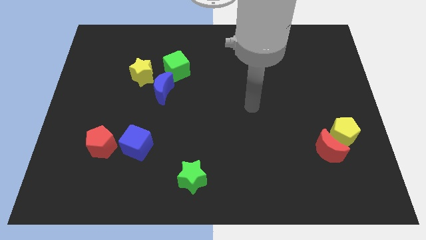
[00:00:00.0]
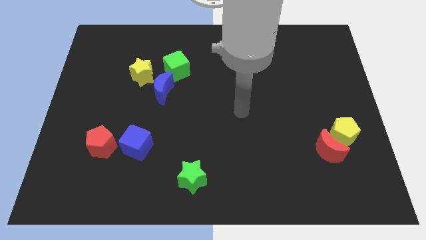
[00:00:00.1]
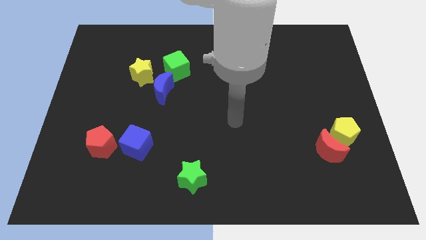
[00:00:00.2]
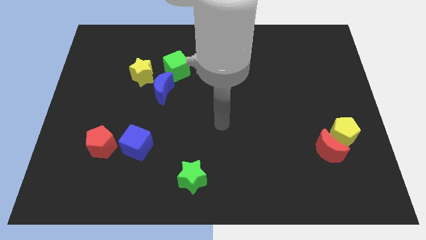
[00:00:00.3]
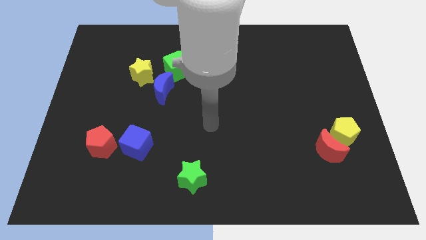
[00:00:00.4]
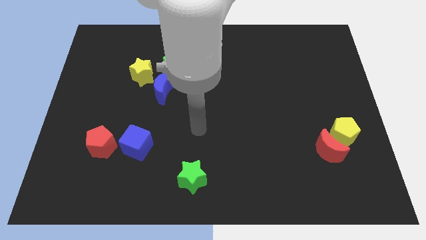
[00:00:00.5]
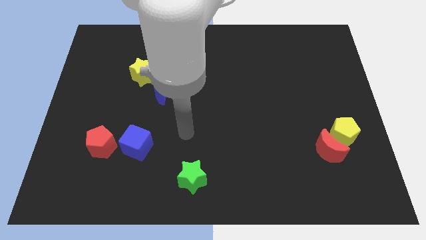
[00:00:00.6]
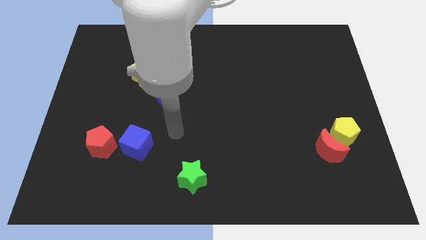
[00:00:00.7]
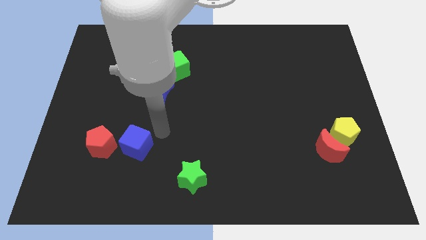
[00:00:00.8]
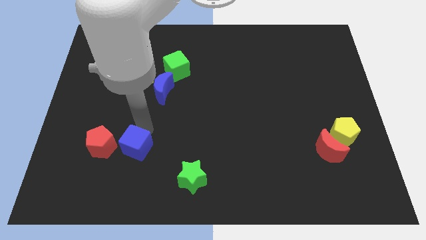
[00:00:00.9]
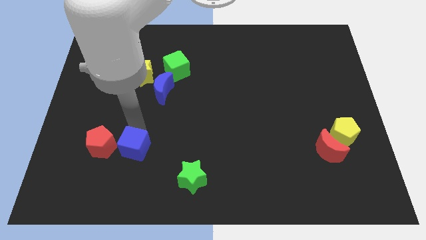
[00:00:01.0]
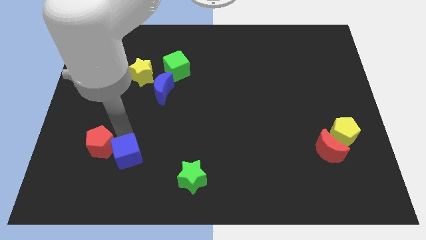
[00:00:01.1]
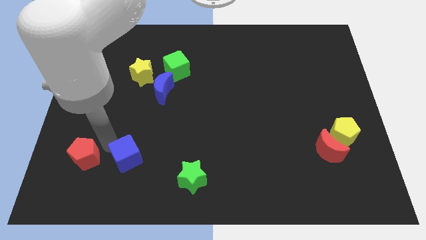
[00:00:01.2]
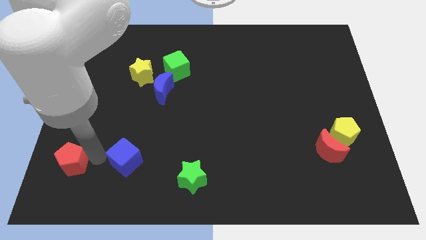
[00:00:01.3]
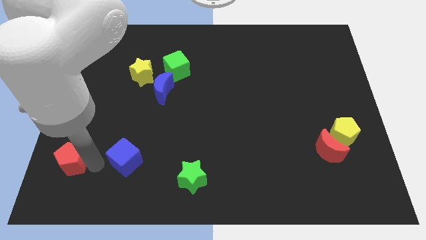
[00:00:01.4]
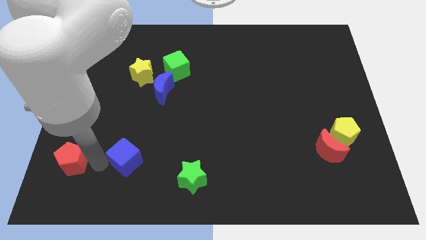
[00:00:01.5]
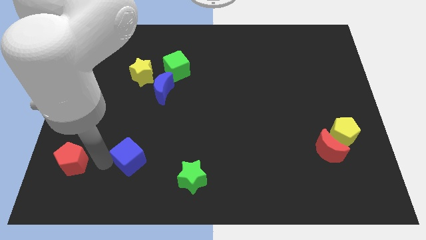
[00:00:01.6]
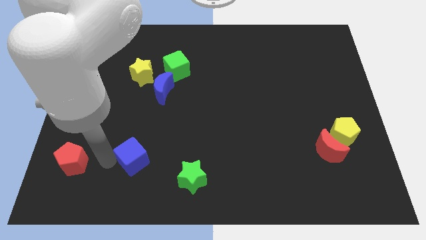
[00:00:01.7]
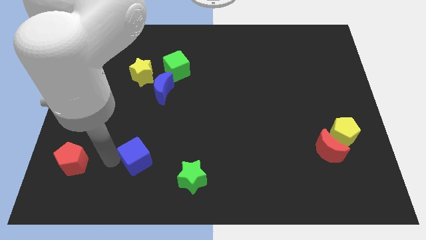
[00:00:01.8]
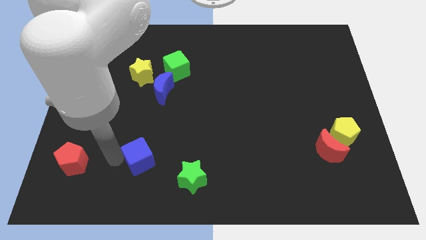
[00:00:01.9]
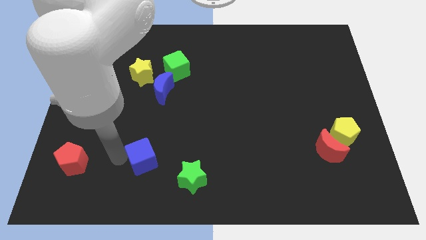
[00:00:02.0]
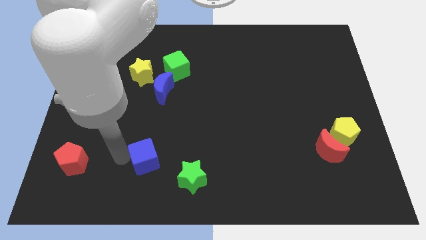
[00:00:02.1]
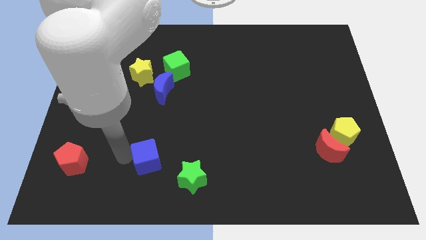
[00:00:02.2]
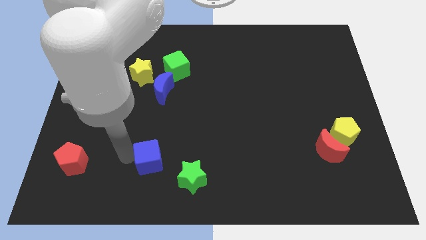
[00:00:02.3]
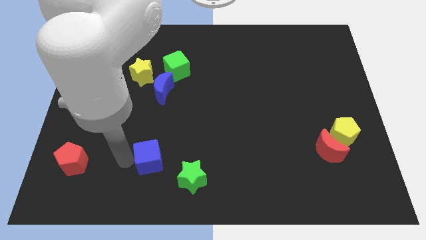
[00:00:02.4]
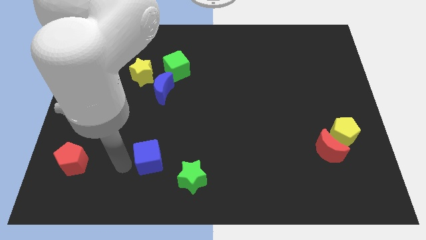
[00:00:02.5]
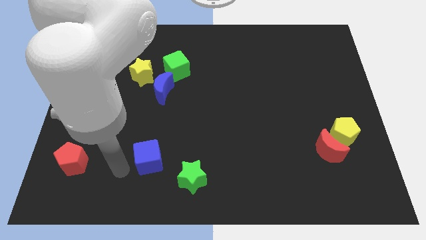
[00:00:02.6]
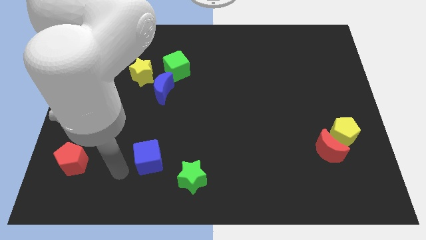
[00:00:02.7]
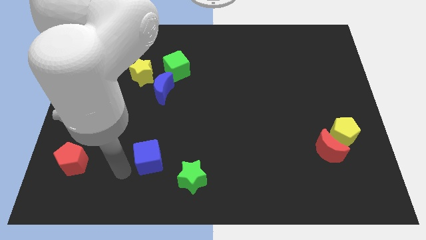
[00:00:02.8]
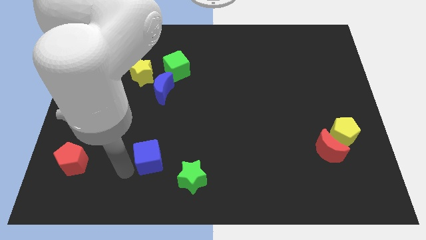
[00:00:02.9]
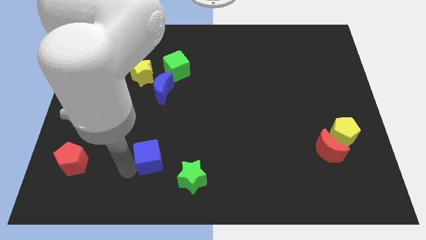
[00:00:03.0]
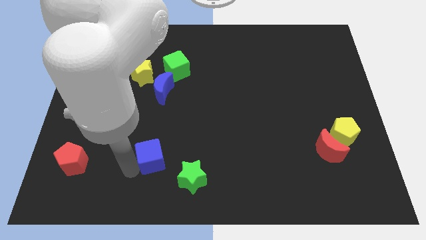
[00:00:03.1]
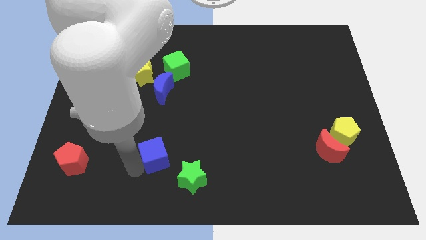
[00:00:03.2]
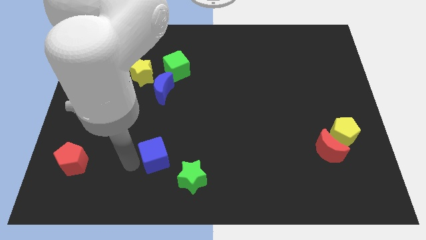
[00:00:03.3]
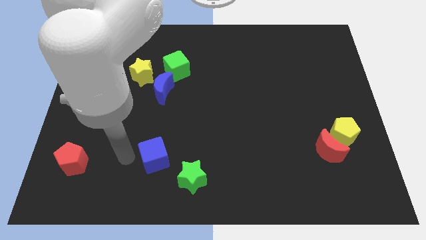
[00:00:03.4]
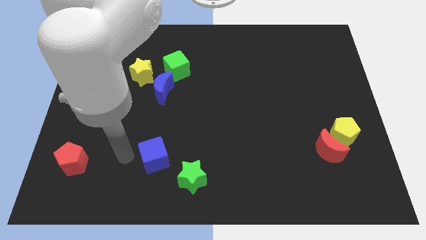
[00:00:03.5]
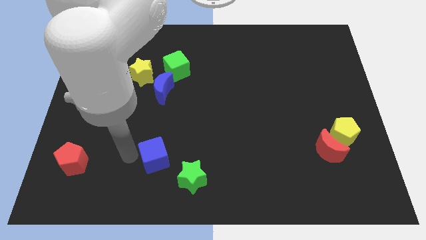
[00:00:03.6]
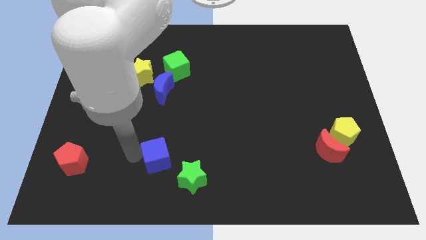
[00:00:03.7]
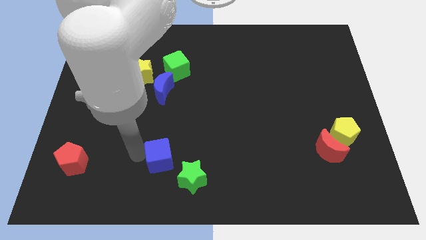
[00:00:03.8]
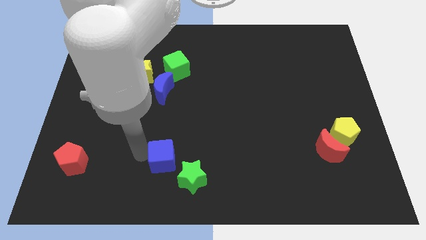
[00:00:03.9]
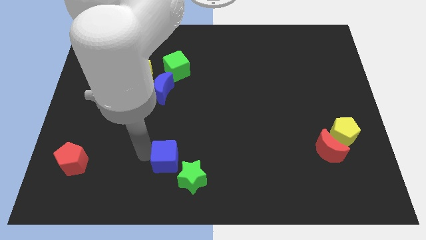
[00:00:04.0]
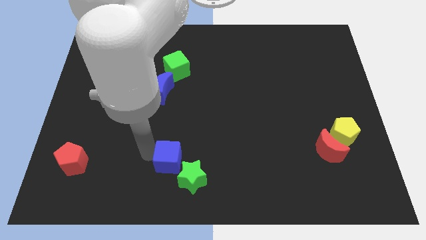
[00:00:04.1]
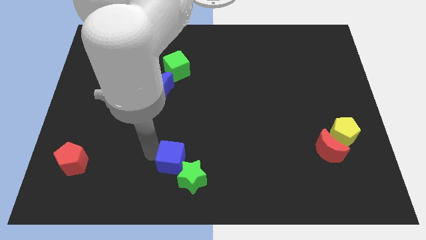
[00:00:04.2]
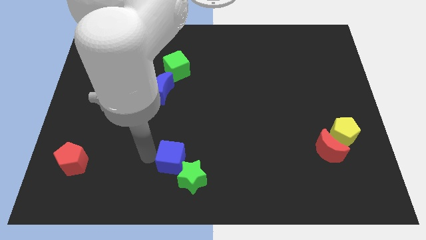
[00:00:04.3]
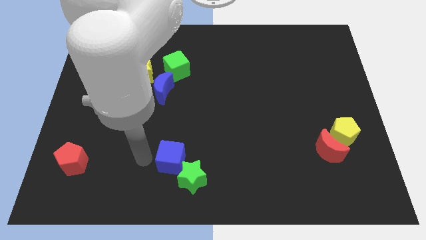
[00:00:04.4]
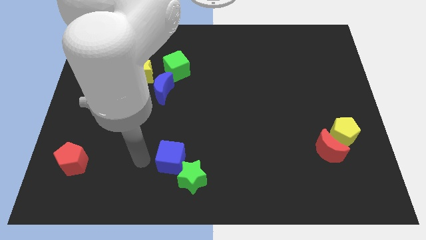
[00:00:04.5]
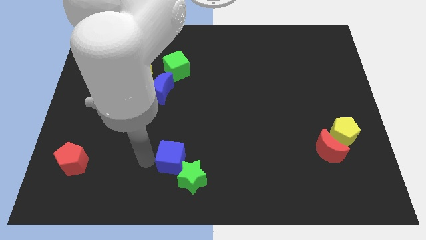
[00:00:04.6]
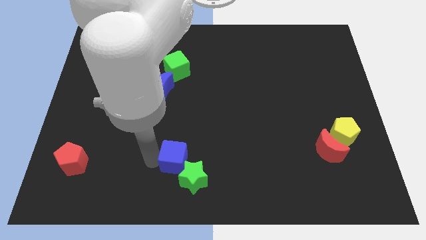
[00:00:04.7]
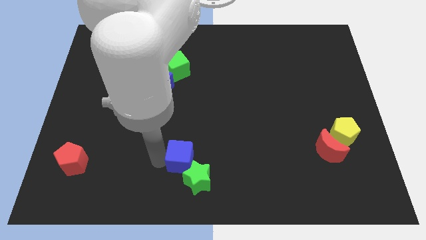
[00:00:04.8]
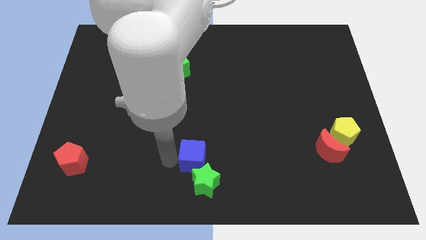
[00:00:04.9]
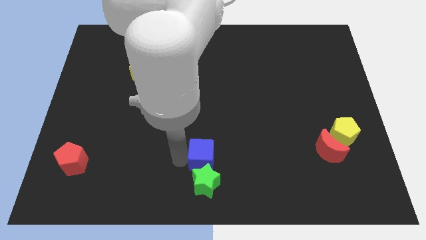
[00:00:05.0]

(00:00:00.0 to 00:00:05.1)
move the blue cube to the top right side of the green star

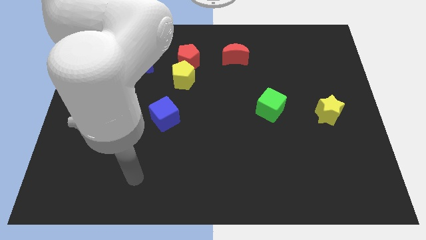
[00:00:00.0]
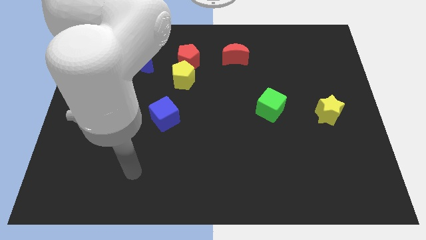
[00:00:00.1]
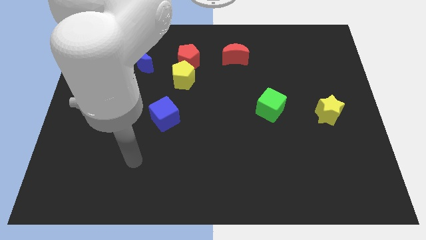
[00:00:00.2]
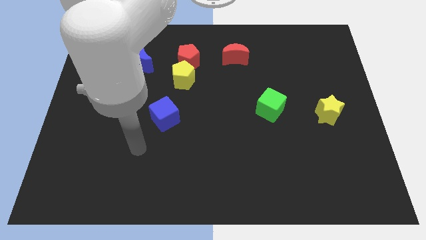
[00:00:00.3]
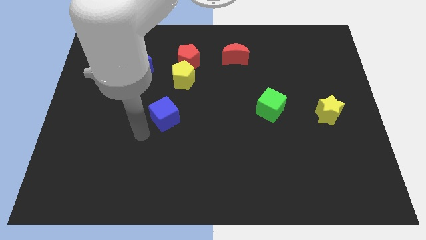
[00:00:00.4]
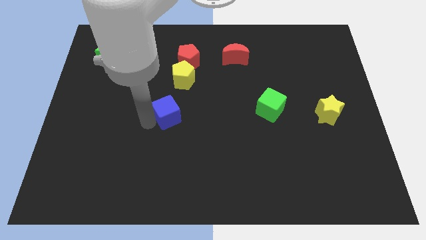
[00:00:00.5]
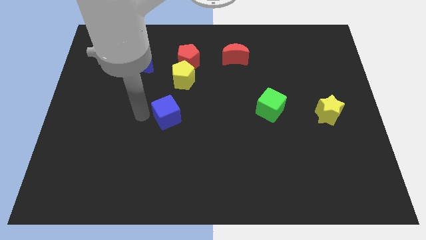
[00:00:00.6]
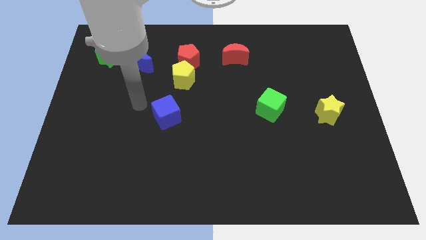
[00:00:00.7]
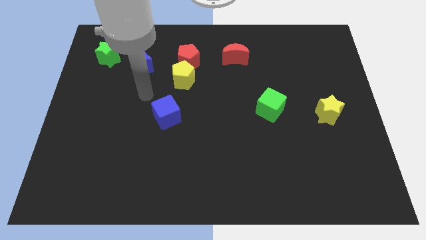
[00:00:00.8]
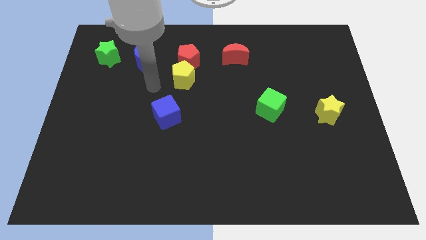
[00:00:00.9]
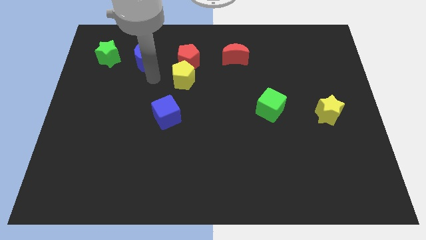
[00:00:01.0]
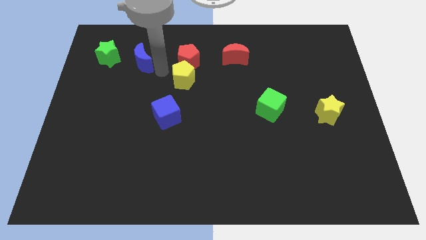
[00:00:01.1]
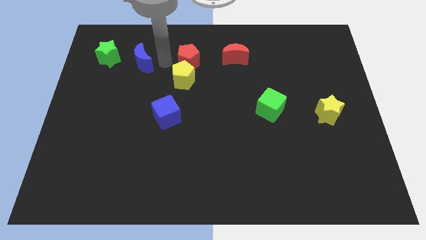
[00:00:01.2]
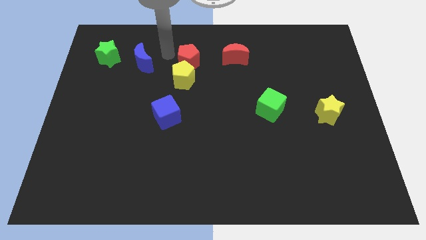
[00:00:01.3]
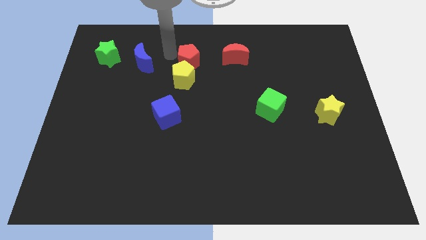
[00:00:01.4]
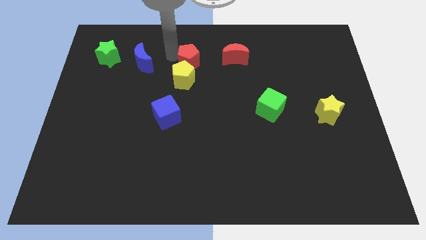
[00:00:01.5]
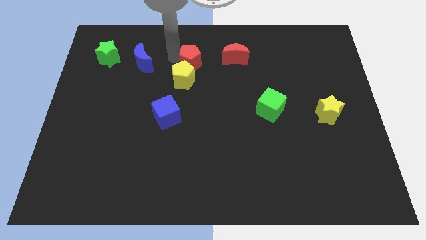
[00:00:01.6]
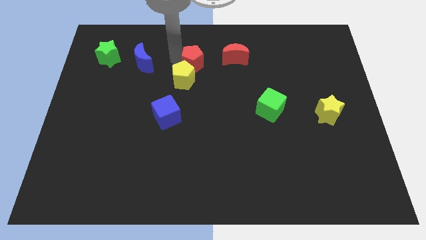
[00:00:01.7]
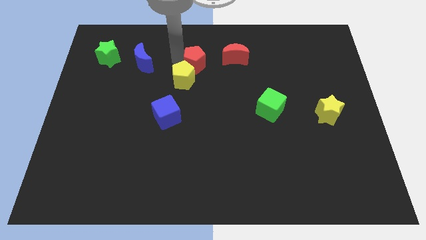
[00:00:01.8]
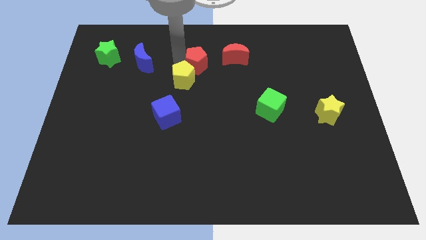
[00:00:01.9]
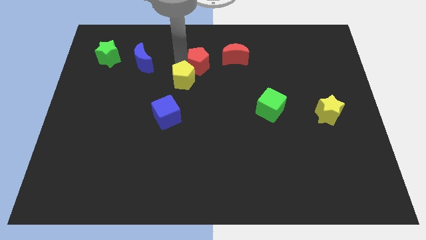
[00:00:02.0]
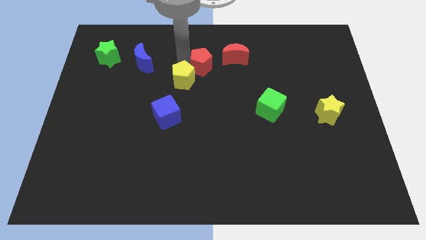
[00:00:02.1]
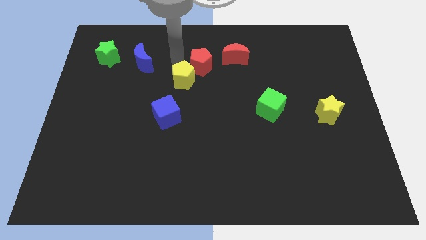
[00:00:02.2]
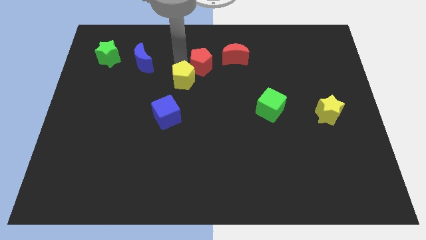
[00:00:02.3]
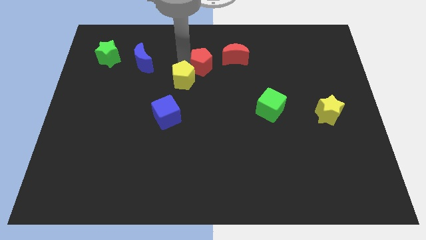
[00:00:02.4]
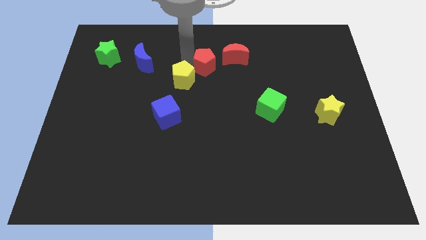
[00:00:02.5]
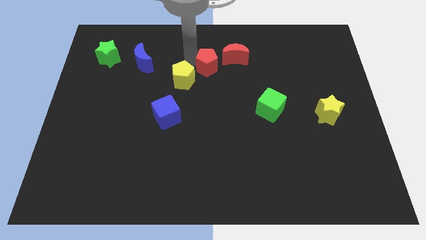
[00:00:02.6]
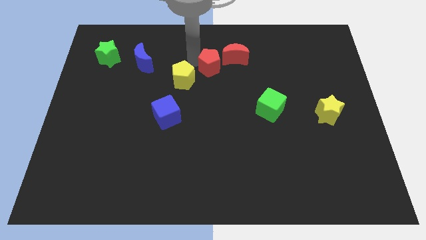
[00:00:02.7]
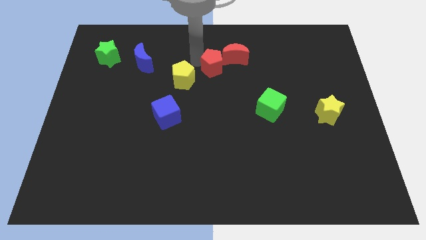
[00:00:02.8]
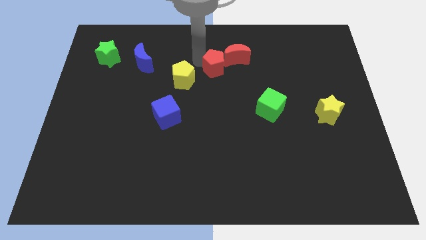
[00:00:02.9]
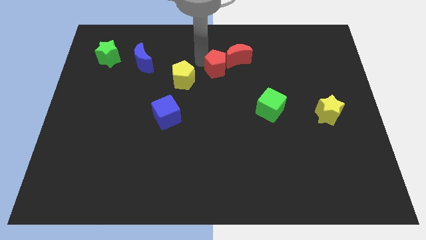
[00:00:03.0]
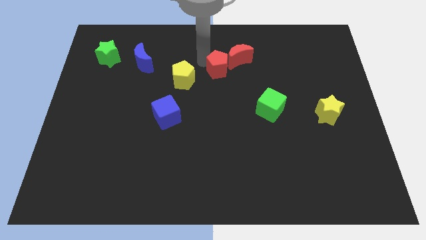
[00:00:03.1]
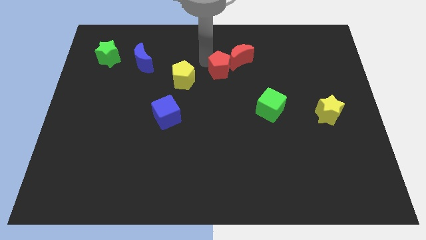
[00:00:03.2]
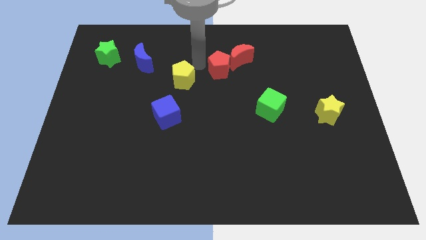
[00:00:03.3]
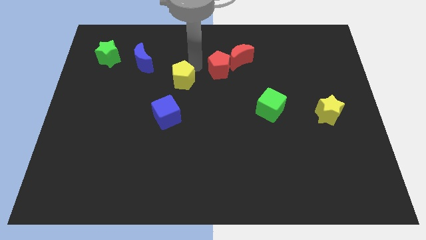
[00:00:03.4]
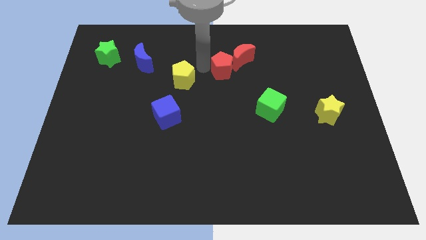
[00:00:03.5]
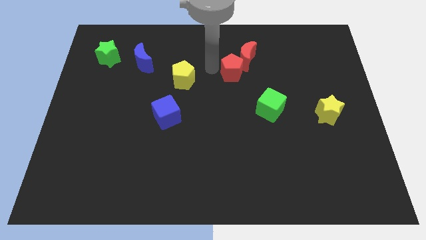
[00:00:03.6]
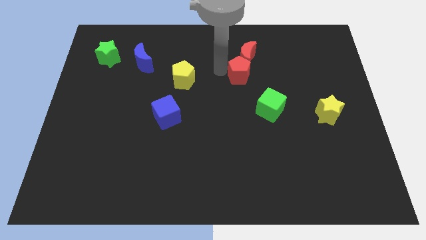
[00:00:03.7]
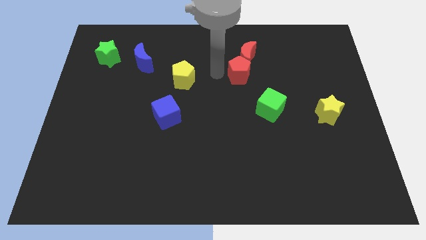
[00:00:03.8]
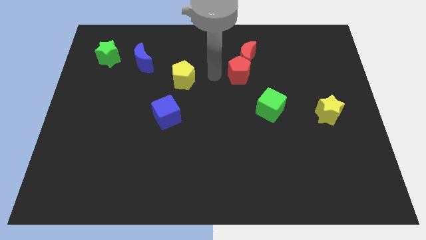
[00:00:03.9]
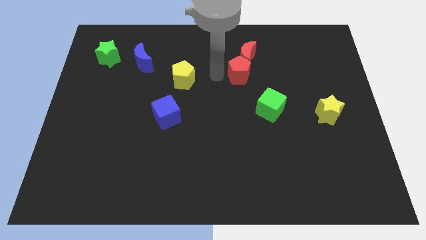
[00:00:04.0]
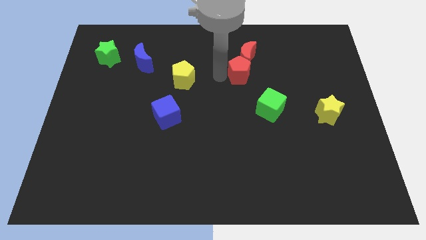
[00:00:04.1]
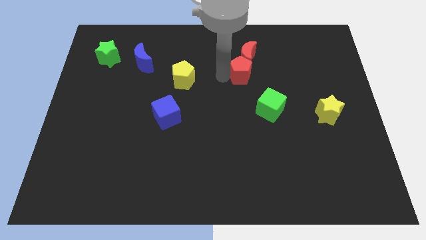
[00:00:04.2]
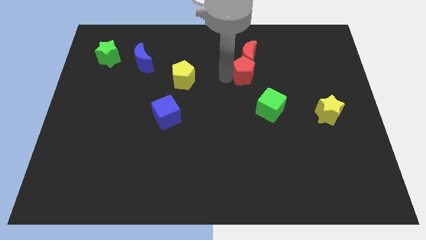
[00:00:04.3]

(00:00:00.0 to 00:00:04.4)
slide the red pentagon diagonally down and to the right of the red moon
